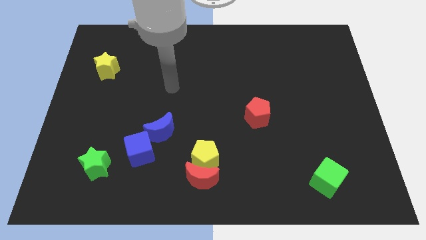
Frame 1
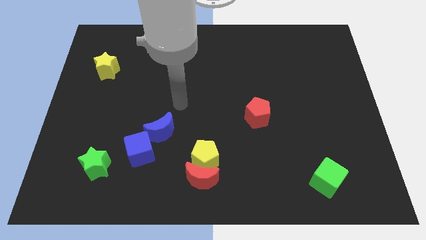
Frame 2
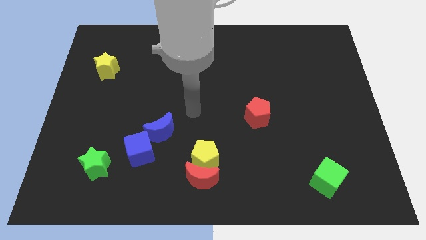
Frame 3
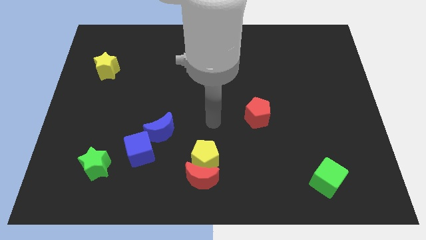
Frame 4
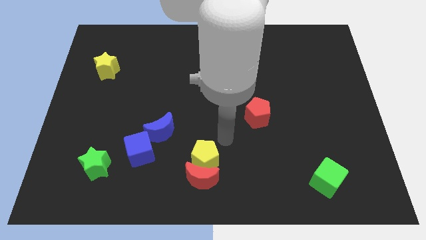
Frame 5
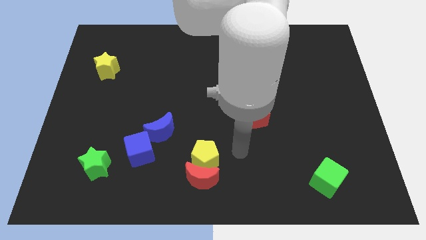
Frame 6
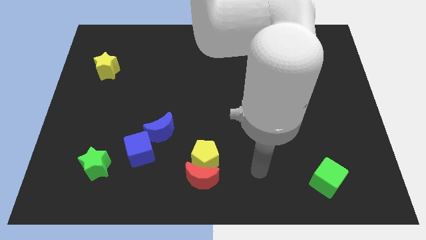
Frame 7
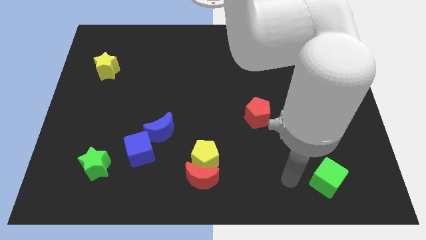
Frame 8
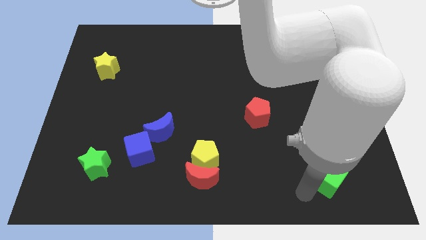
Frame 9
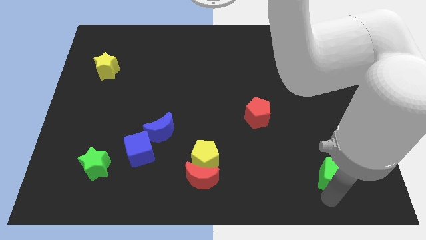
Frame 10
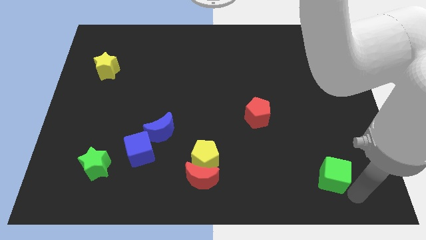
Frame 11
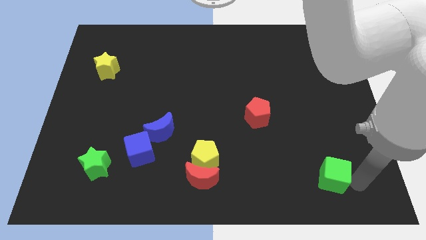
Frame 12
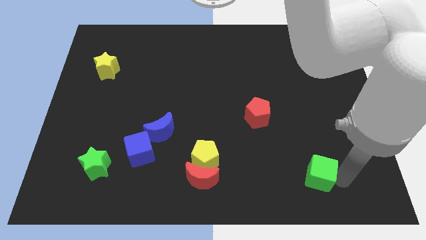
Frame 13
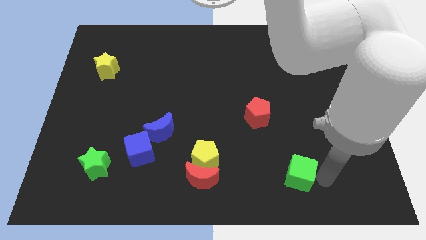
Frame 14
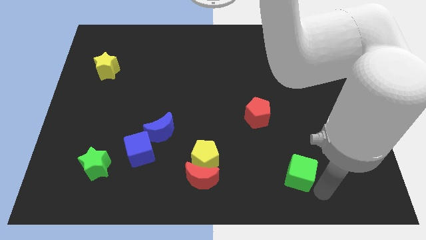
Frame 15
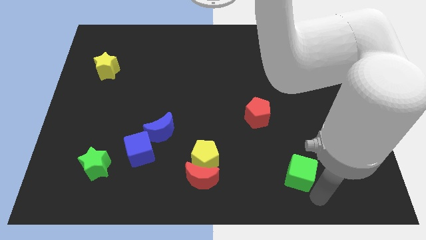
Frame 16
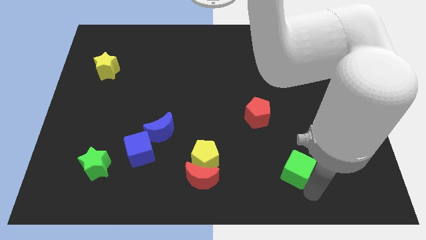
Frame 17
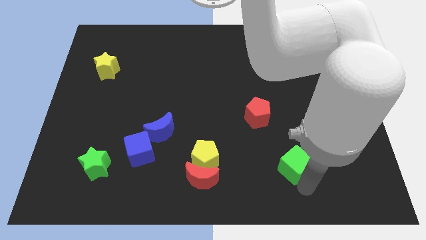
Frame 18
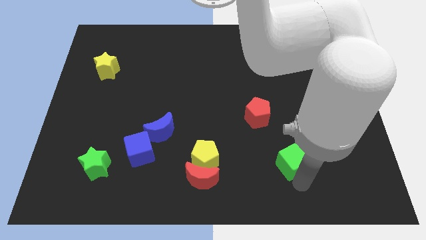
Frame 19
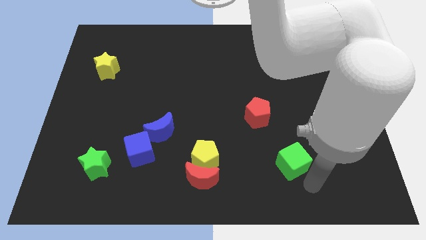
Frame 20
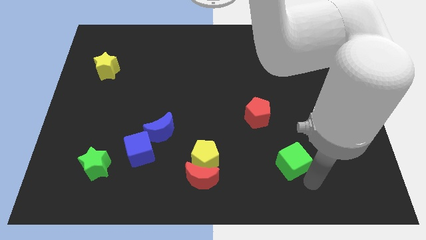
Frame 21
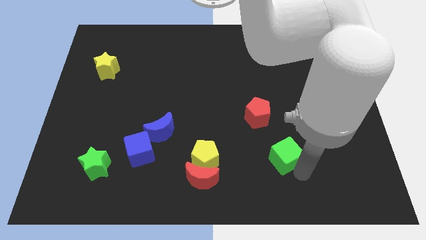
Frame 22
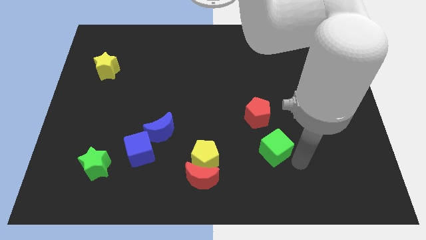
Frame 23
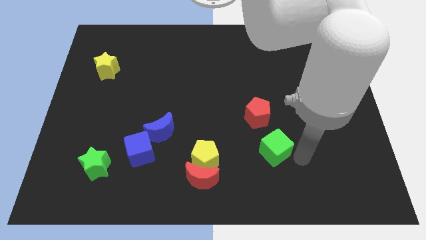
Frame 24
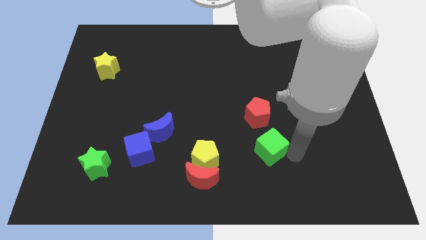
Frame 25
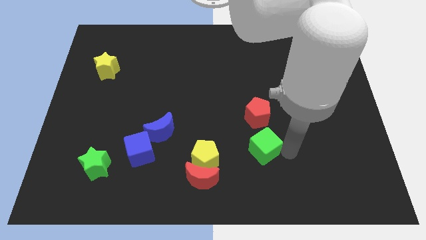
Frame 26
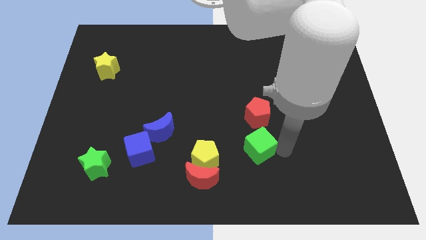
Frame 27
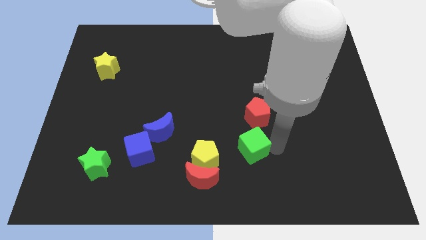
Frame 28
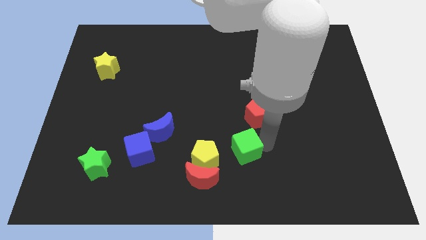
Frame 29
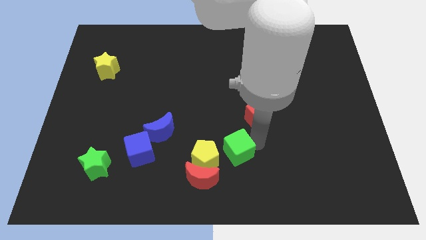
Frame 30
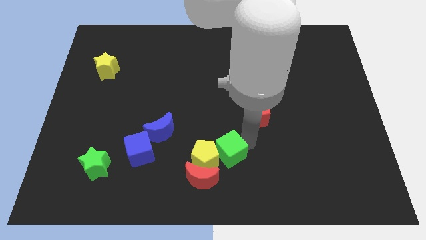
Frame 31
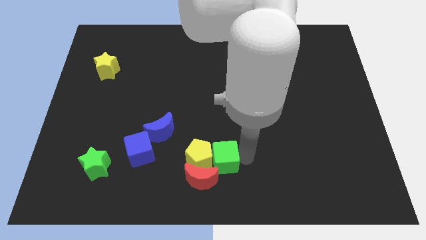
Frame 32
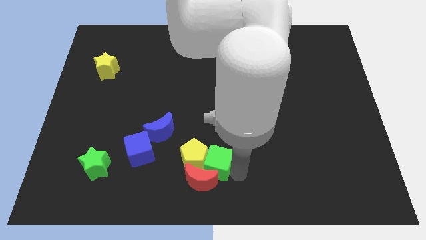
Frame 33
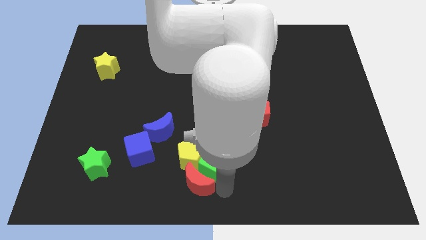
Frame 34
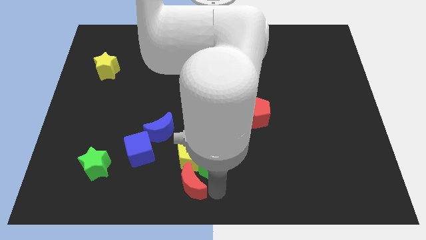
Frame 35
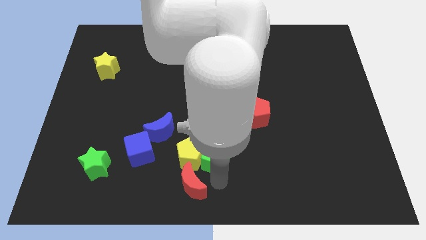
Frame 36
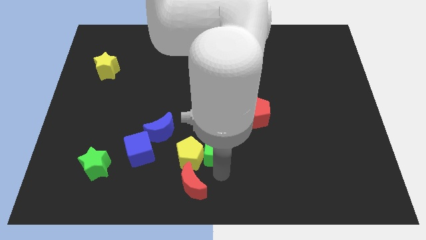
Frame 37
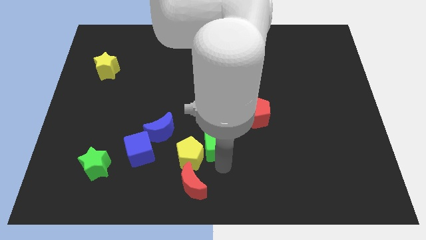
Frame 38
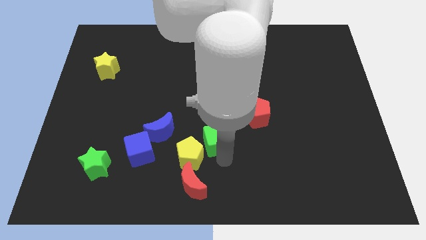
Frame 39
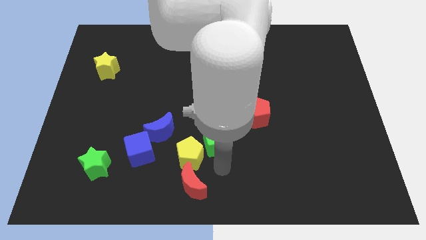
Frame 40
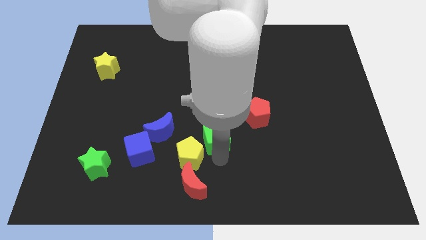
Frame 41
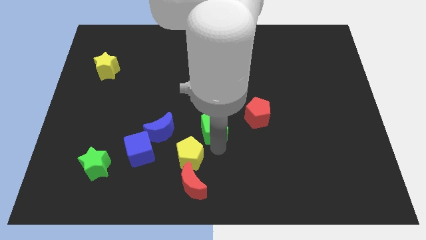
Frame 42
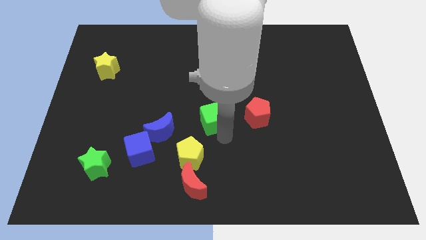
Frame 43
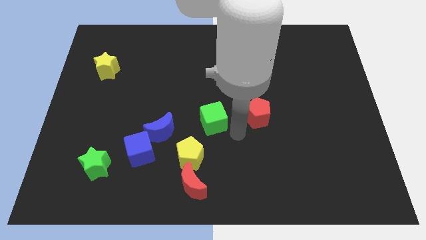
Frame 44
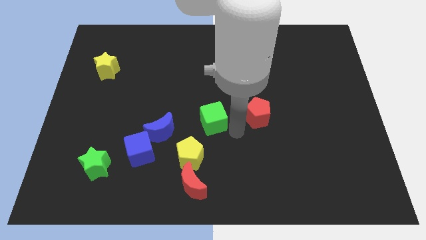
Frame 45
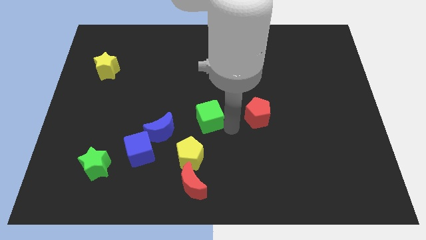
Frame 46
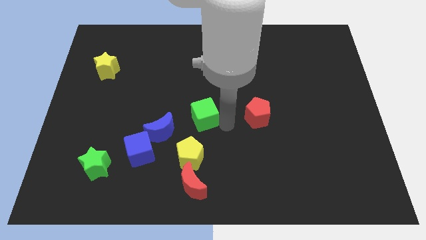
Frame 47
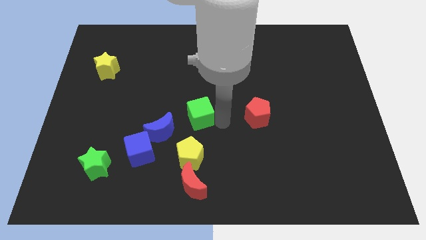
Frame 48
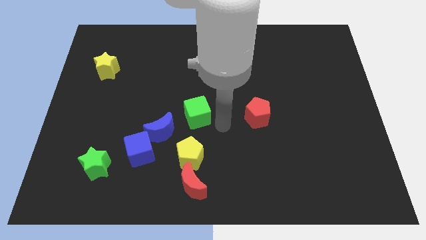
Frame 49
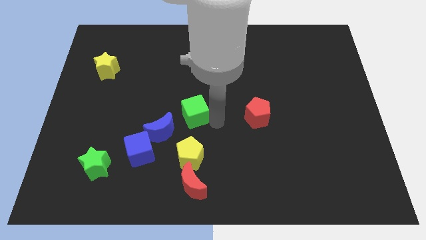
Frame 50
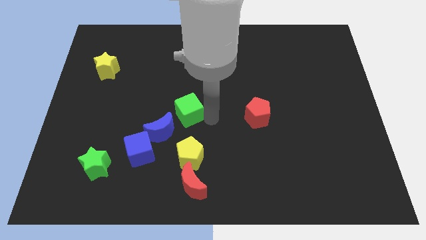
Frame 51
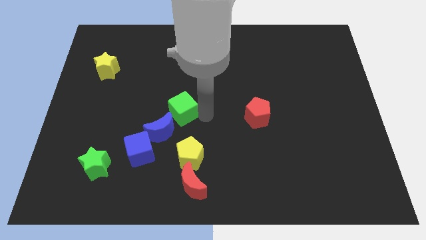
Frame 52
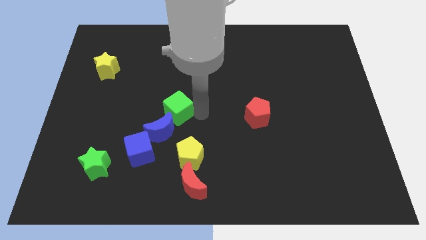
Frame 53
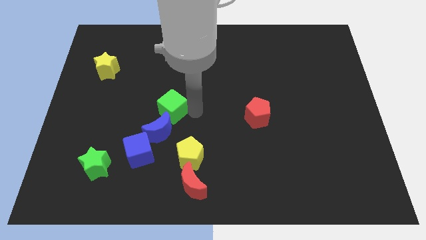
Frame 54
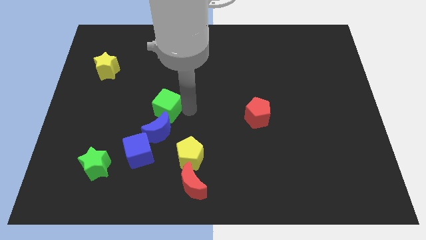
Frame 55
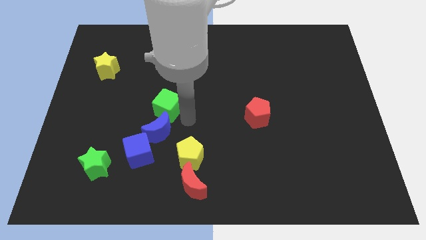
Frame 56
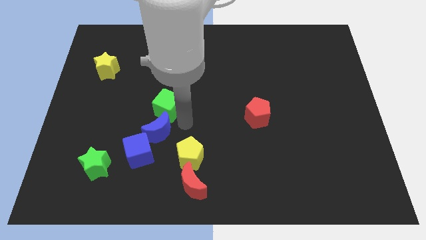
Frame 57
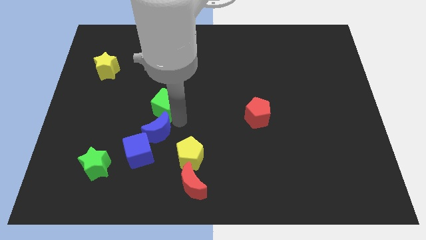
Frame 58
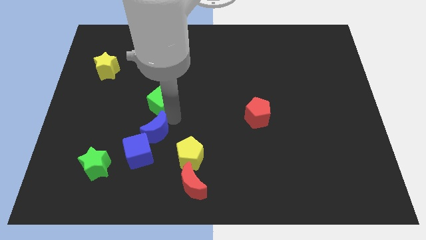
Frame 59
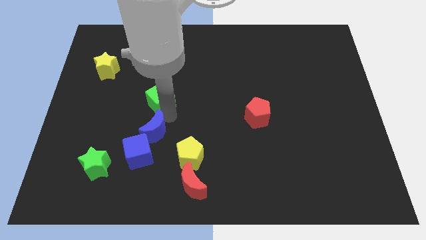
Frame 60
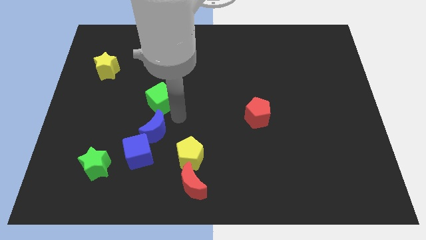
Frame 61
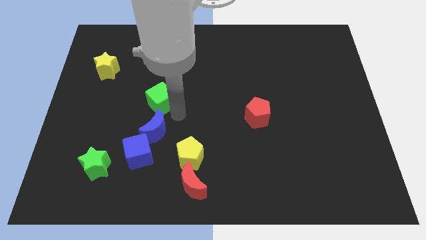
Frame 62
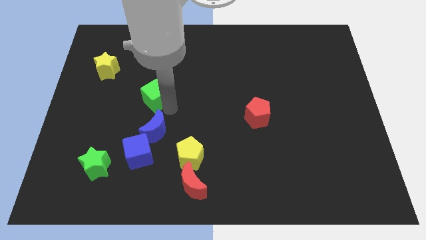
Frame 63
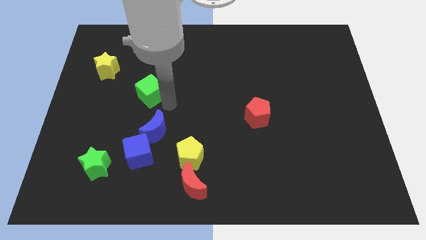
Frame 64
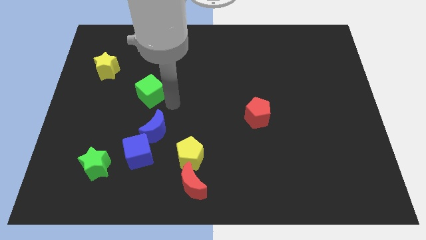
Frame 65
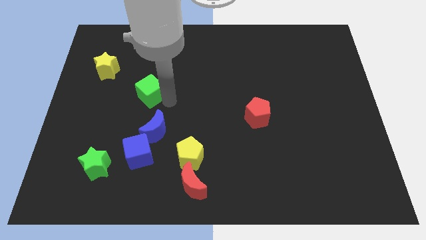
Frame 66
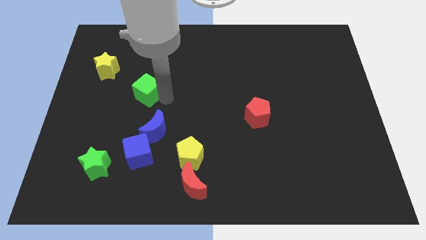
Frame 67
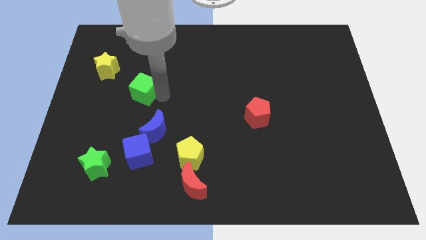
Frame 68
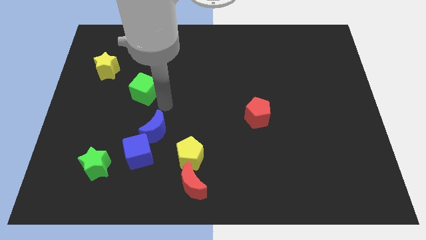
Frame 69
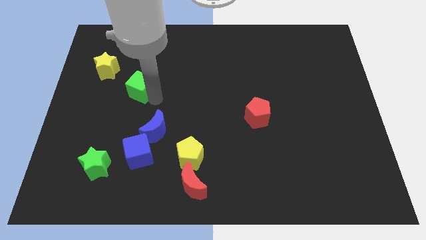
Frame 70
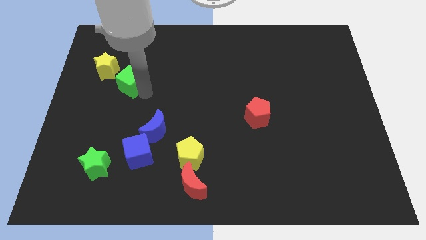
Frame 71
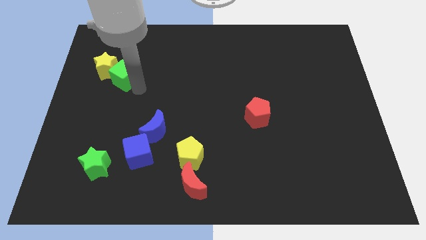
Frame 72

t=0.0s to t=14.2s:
move the green cube next to the yellow star

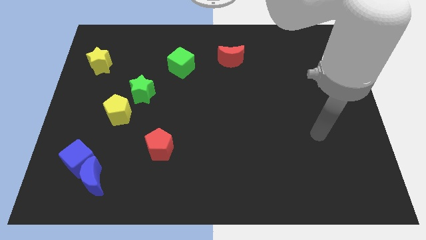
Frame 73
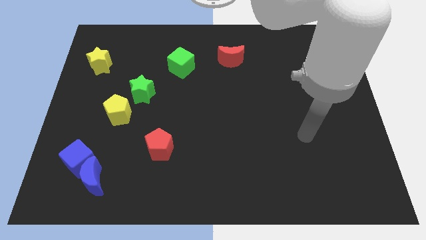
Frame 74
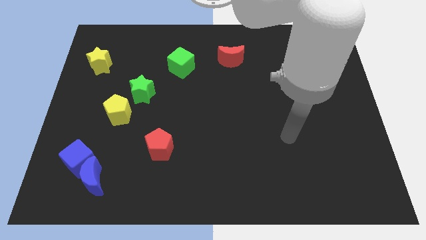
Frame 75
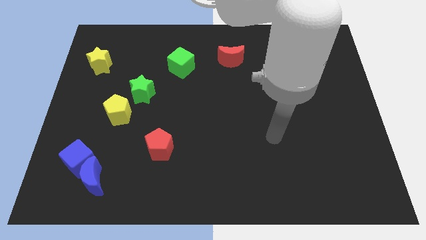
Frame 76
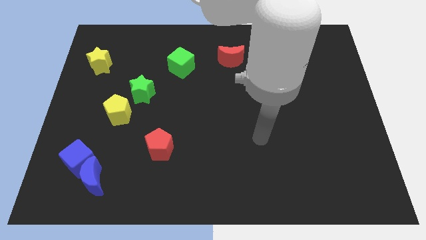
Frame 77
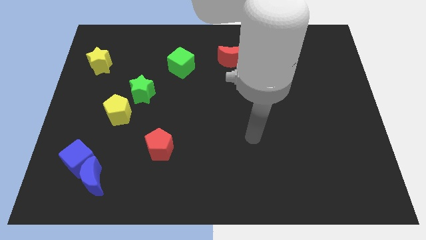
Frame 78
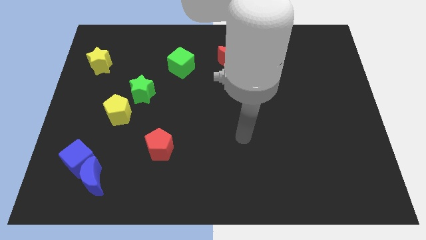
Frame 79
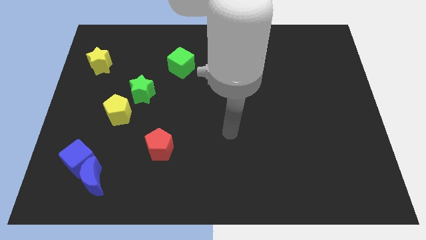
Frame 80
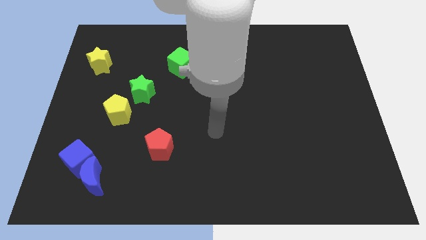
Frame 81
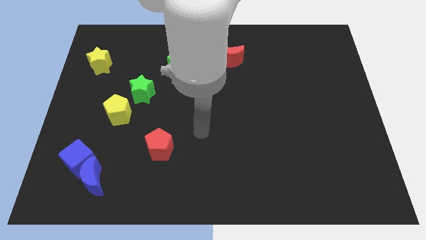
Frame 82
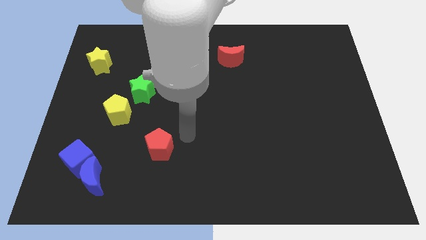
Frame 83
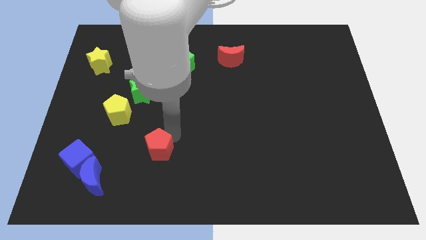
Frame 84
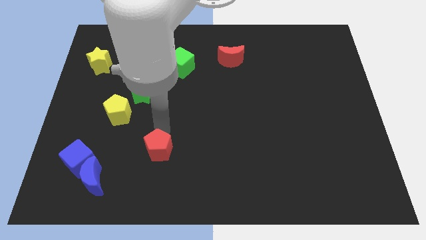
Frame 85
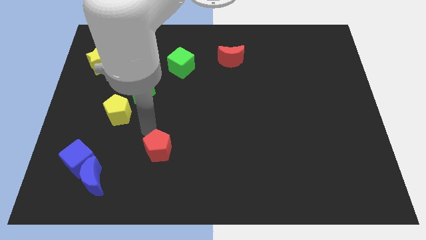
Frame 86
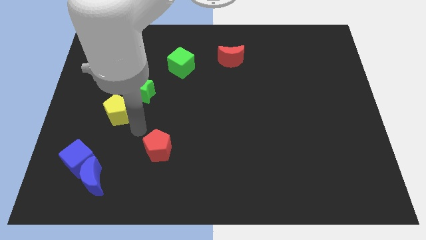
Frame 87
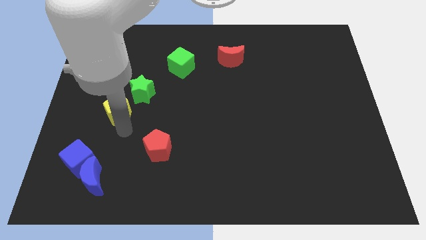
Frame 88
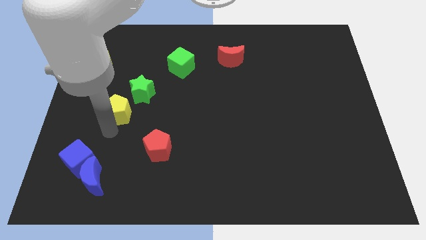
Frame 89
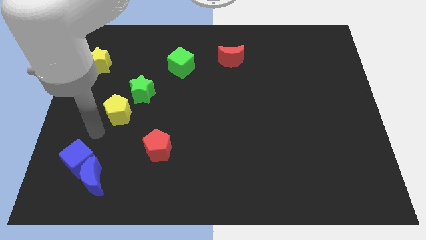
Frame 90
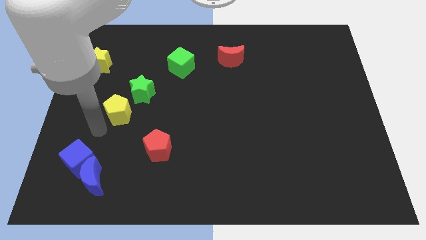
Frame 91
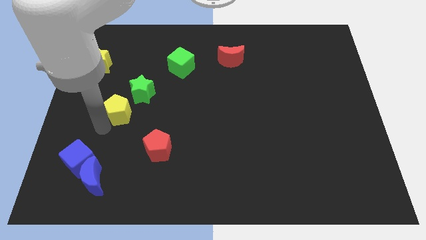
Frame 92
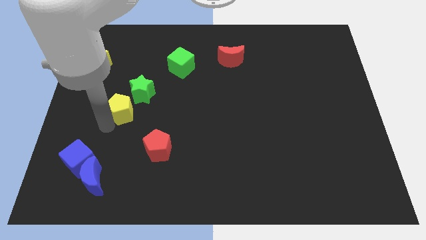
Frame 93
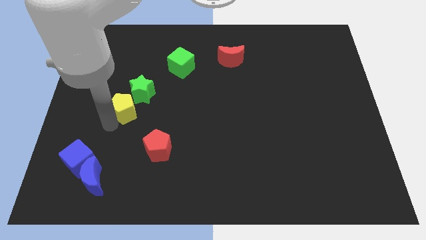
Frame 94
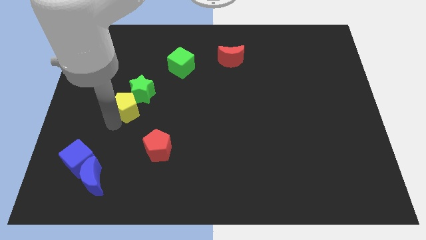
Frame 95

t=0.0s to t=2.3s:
slide the yellow pentagon next to the green star
